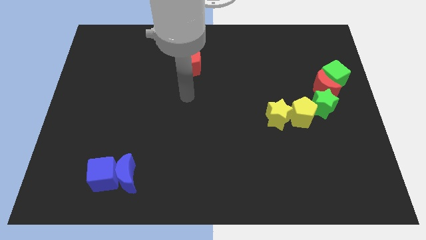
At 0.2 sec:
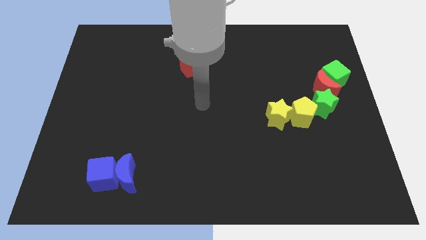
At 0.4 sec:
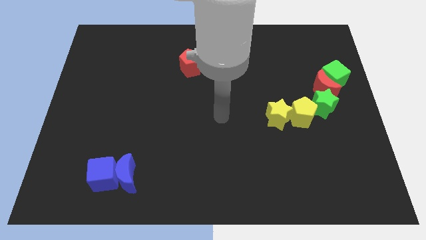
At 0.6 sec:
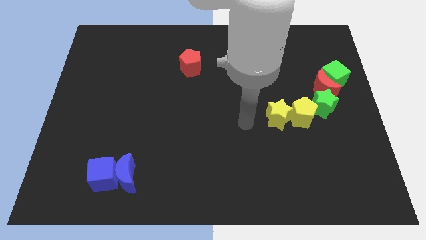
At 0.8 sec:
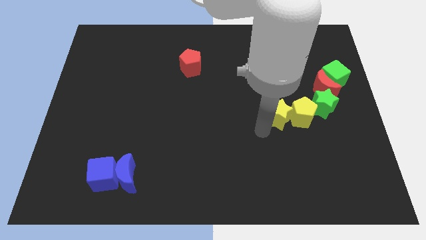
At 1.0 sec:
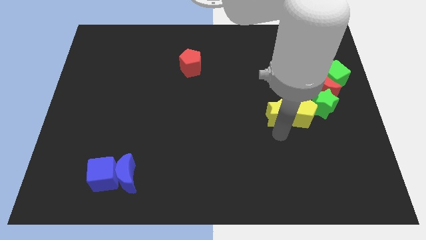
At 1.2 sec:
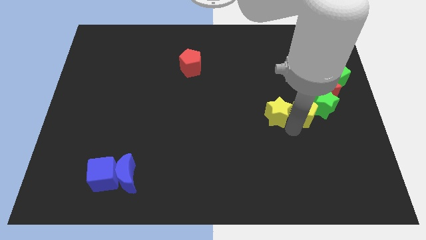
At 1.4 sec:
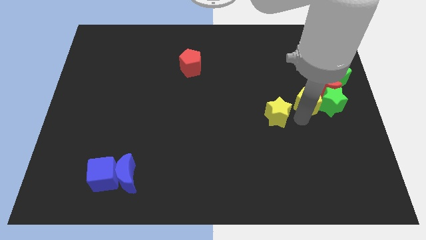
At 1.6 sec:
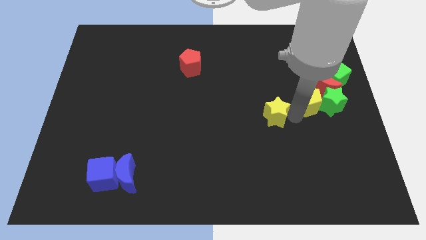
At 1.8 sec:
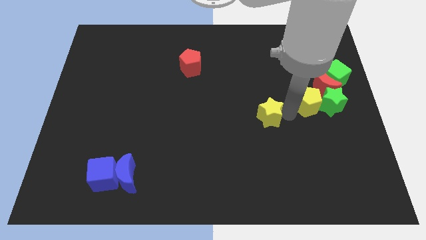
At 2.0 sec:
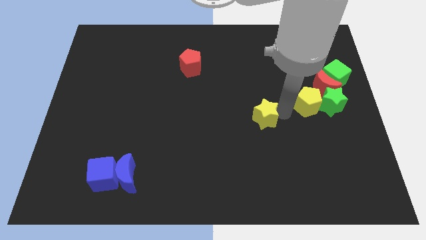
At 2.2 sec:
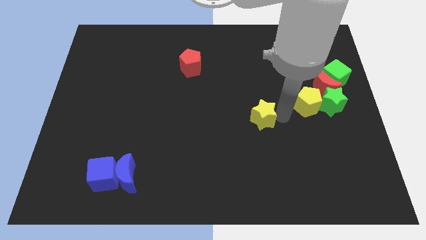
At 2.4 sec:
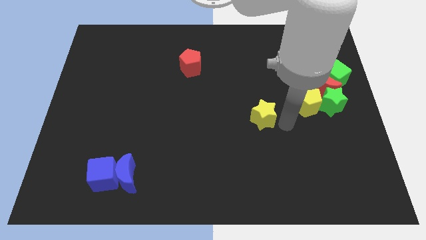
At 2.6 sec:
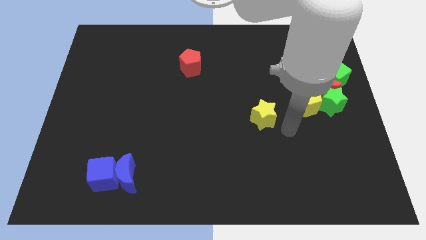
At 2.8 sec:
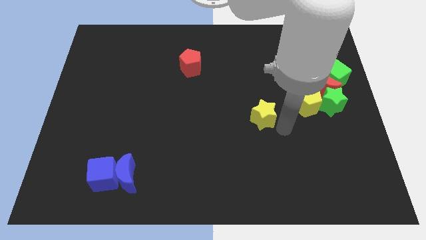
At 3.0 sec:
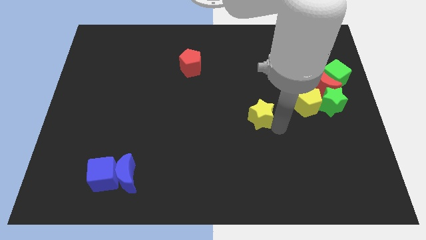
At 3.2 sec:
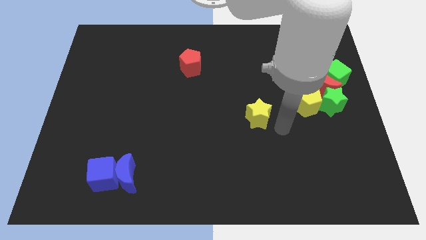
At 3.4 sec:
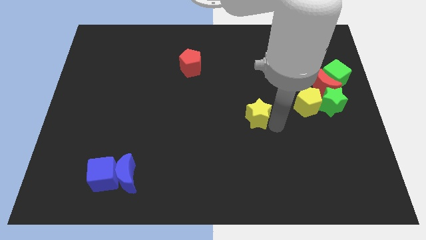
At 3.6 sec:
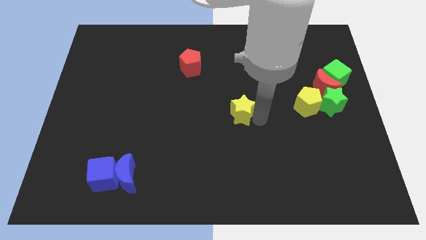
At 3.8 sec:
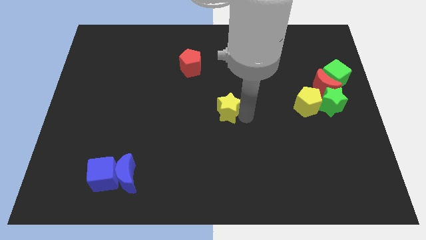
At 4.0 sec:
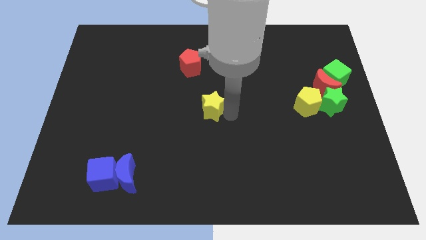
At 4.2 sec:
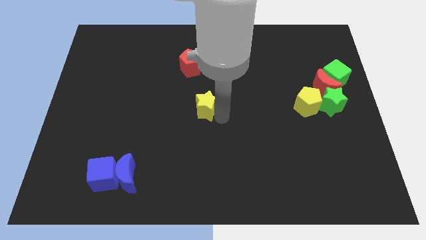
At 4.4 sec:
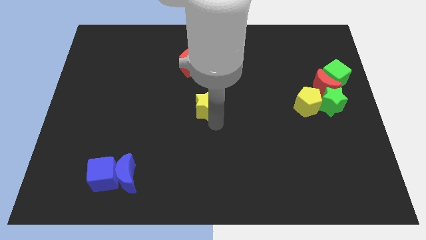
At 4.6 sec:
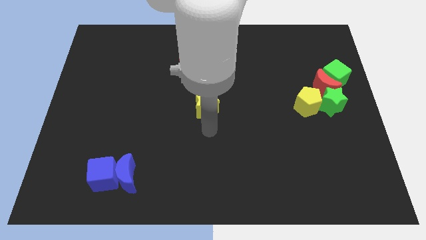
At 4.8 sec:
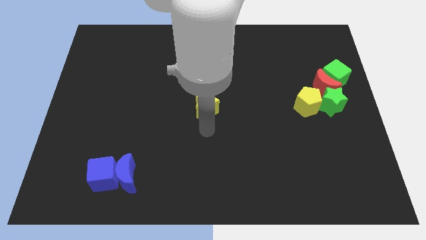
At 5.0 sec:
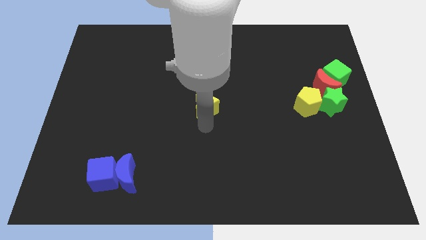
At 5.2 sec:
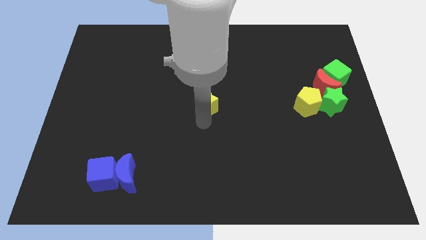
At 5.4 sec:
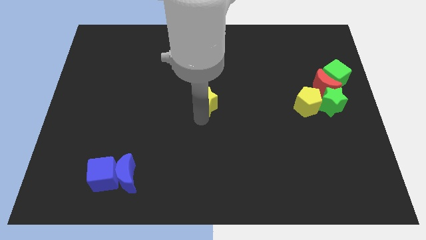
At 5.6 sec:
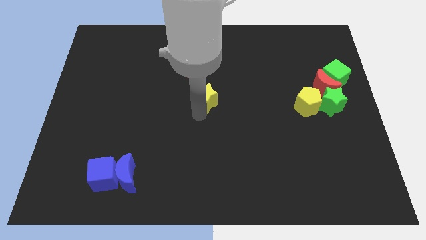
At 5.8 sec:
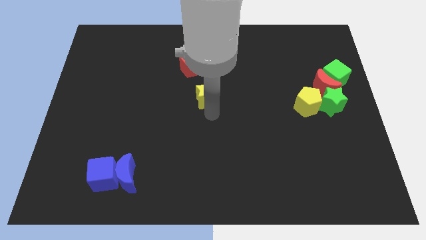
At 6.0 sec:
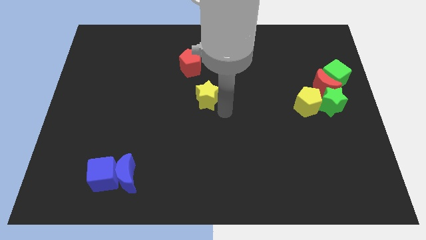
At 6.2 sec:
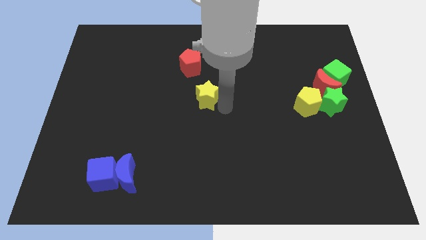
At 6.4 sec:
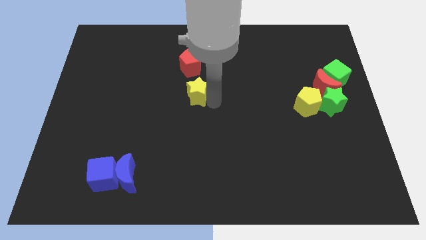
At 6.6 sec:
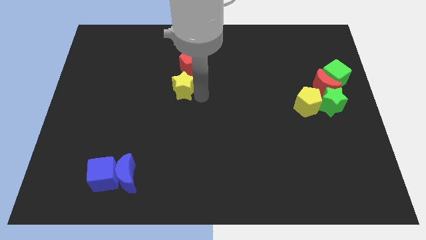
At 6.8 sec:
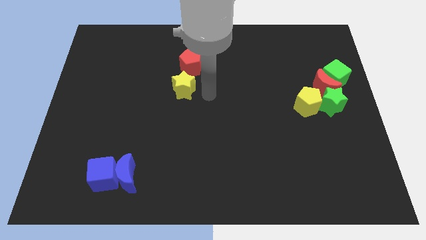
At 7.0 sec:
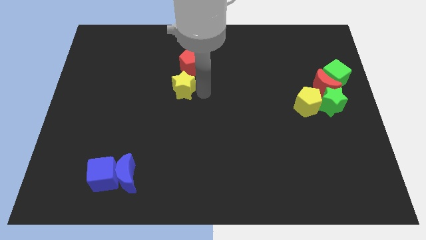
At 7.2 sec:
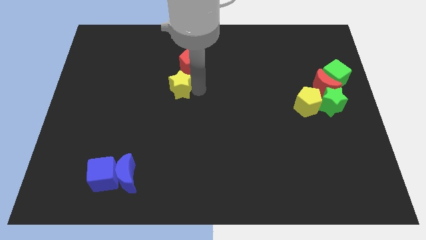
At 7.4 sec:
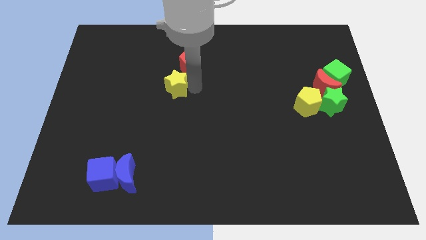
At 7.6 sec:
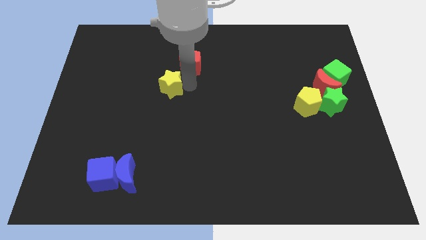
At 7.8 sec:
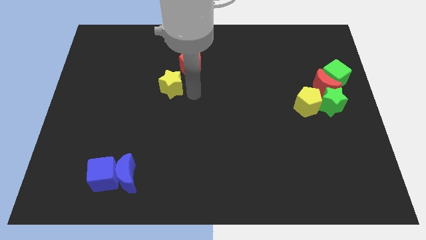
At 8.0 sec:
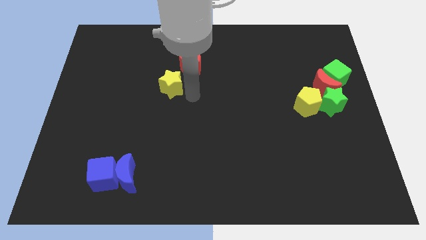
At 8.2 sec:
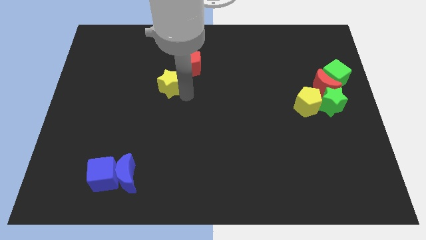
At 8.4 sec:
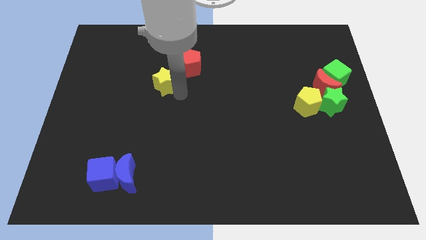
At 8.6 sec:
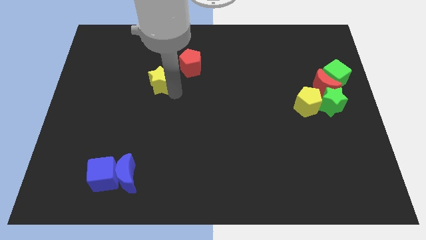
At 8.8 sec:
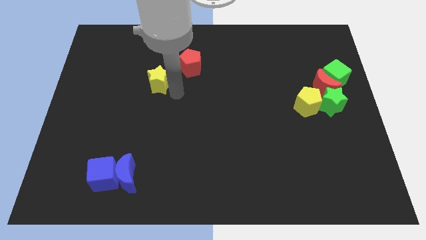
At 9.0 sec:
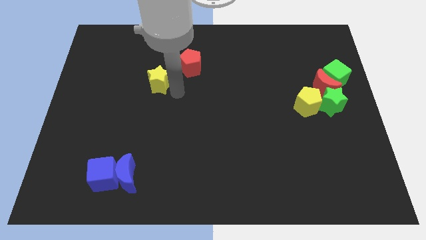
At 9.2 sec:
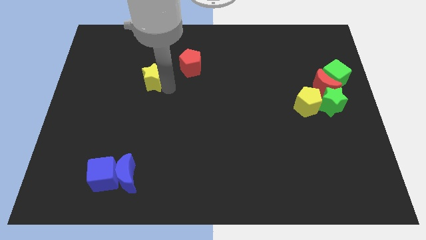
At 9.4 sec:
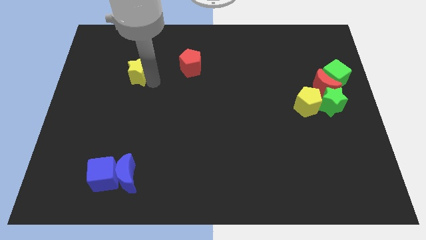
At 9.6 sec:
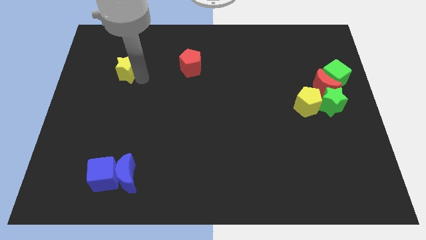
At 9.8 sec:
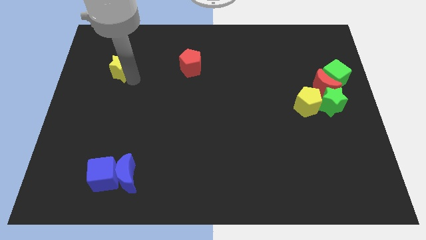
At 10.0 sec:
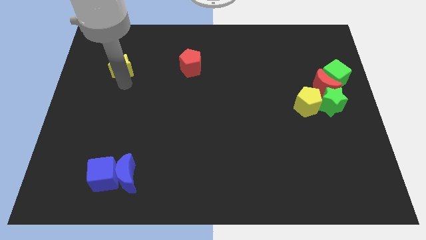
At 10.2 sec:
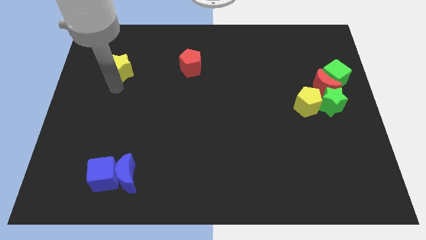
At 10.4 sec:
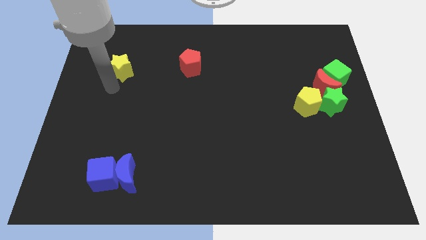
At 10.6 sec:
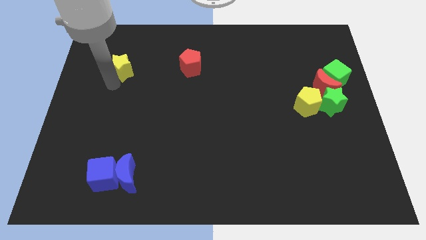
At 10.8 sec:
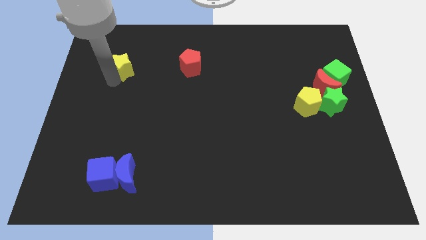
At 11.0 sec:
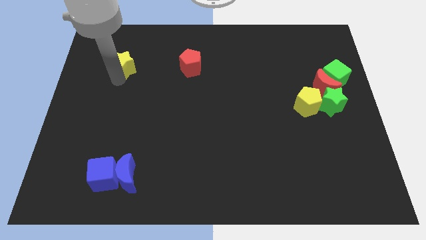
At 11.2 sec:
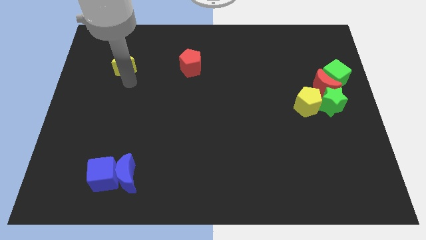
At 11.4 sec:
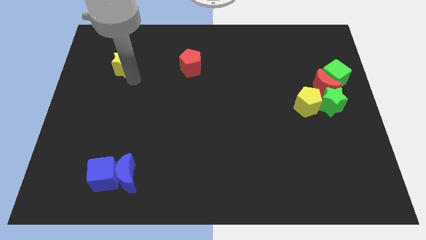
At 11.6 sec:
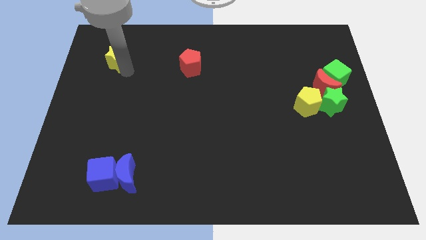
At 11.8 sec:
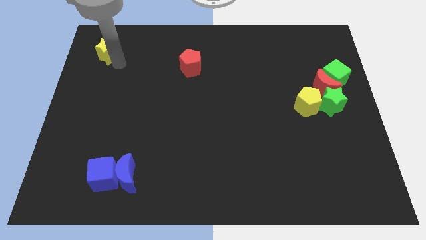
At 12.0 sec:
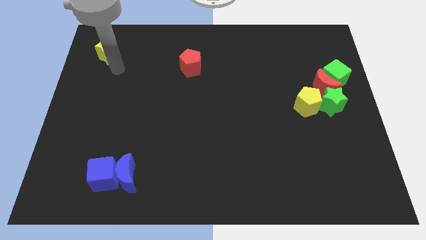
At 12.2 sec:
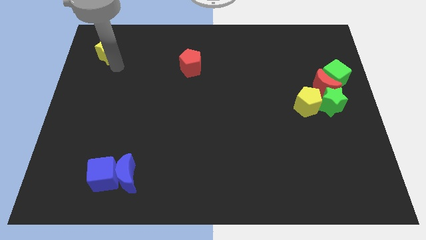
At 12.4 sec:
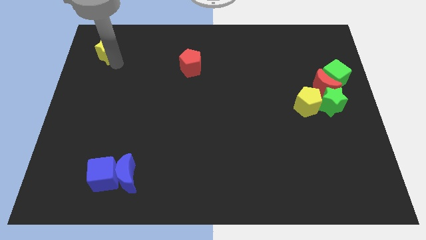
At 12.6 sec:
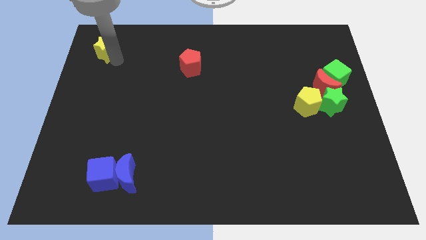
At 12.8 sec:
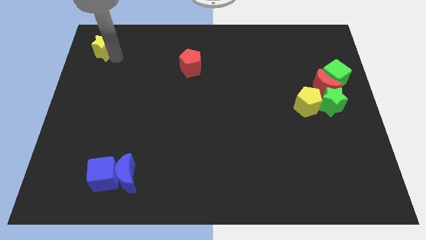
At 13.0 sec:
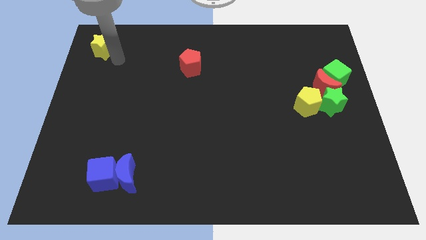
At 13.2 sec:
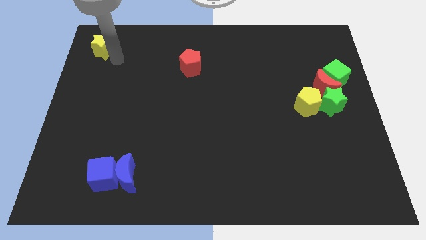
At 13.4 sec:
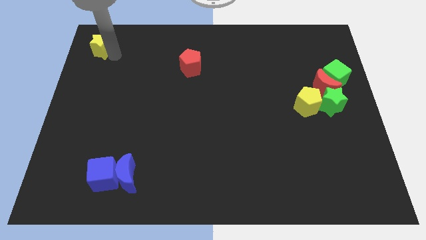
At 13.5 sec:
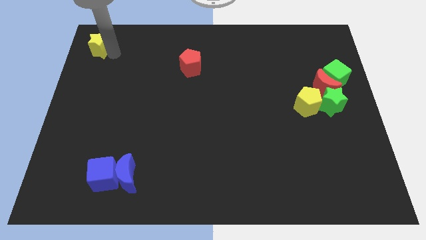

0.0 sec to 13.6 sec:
move the yellow star to the upper left corner
